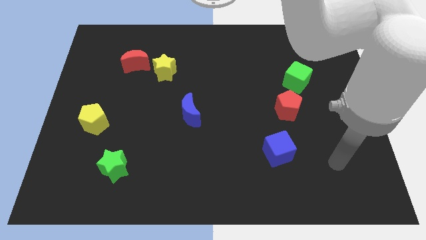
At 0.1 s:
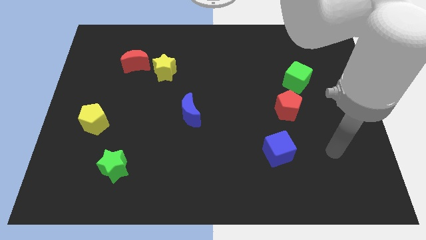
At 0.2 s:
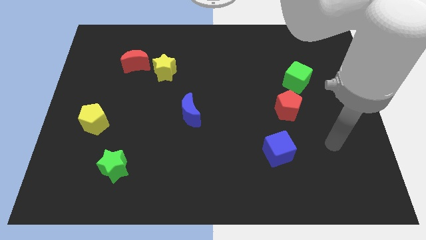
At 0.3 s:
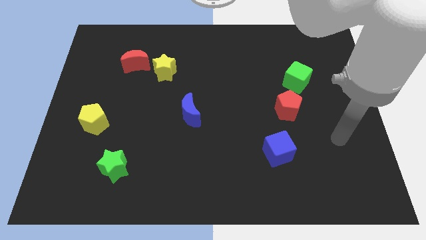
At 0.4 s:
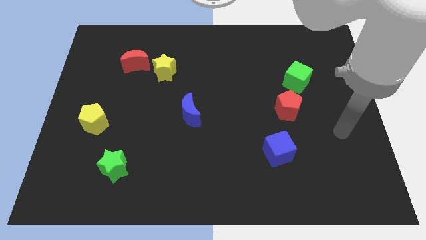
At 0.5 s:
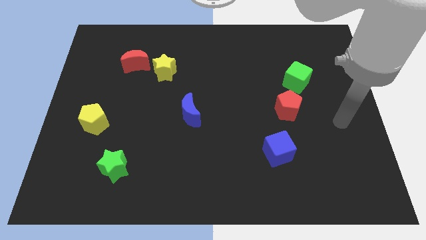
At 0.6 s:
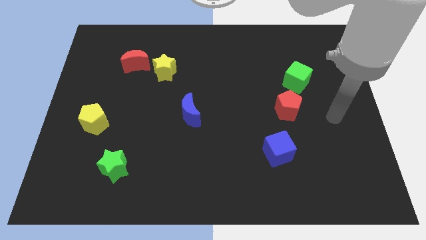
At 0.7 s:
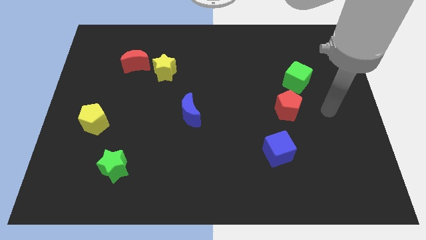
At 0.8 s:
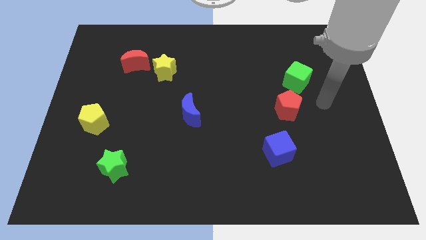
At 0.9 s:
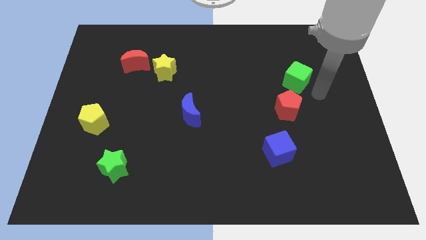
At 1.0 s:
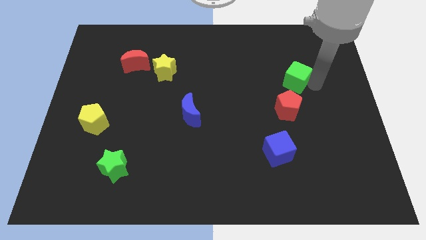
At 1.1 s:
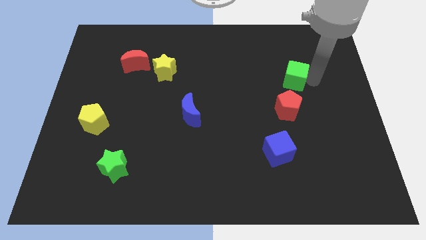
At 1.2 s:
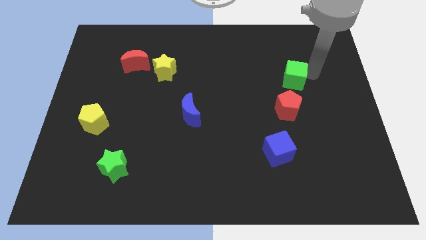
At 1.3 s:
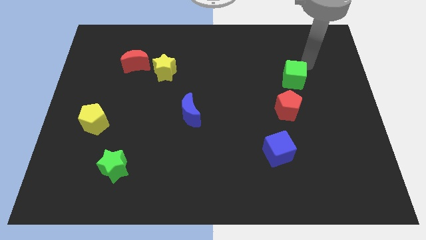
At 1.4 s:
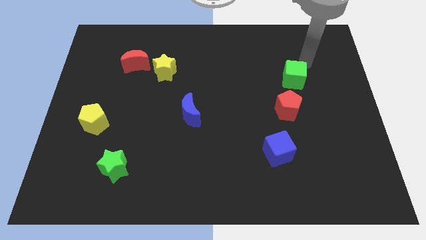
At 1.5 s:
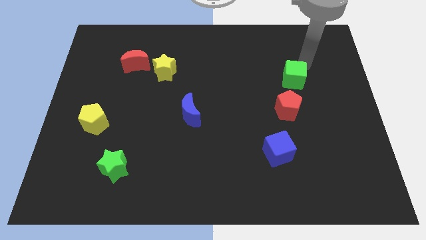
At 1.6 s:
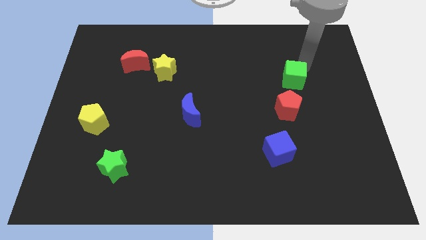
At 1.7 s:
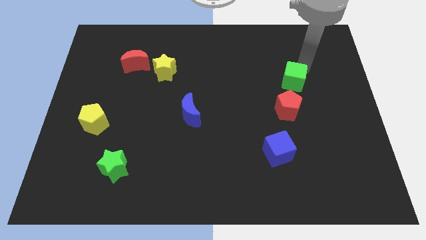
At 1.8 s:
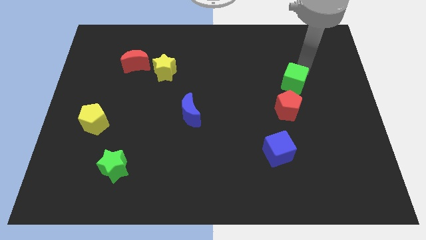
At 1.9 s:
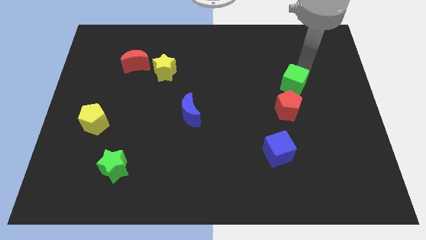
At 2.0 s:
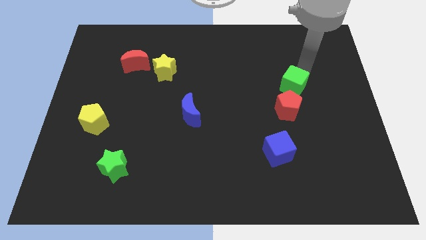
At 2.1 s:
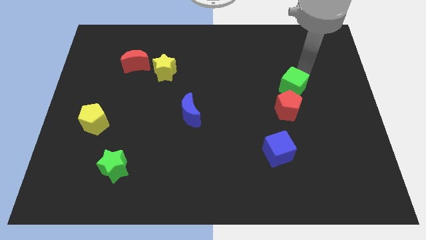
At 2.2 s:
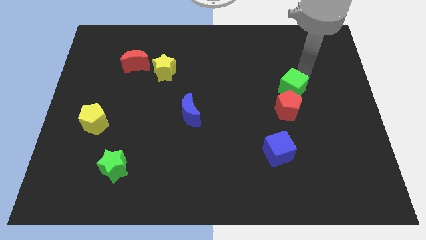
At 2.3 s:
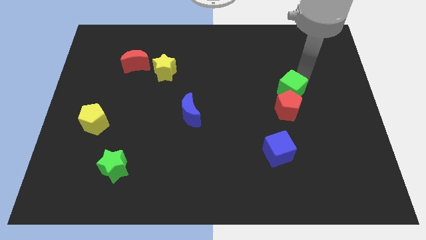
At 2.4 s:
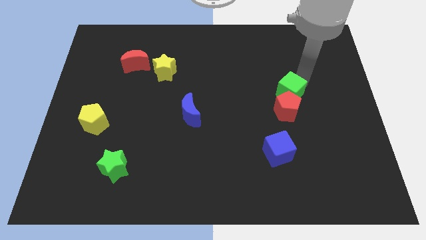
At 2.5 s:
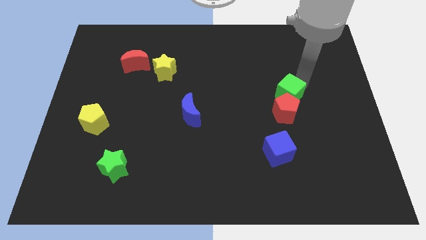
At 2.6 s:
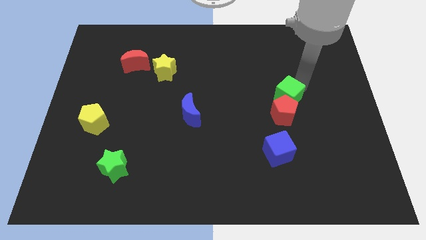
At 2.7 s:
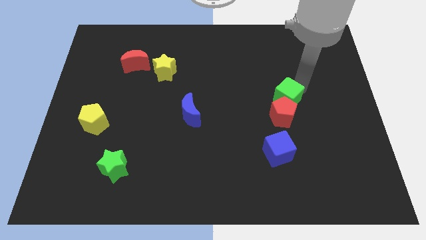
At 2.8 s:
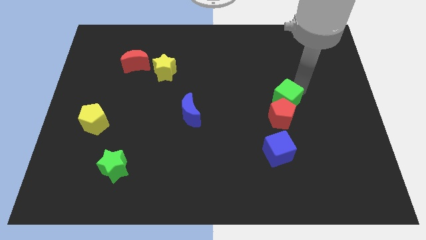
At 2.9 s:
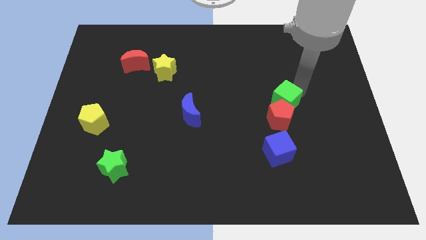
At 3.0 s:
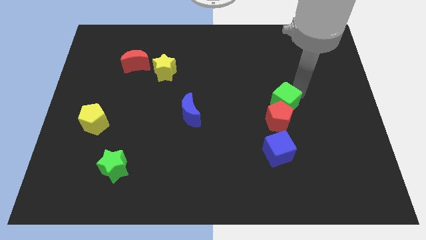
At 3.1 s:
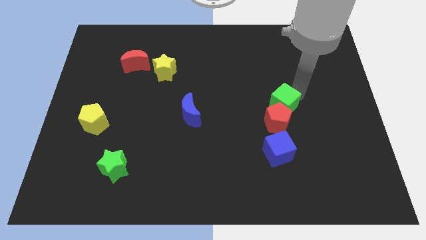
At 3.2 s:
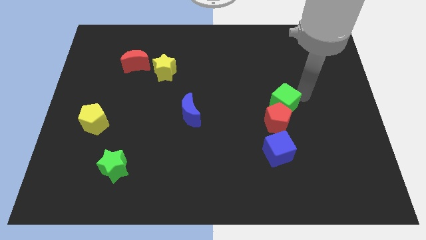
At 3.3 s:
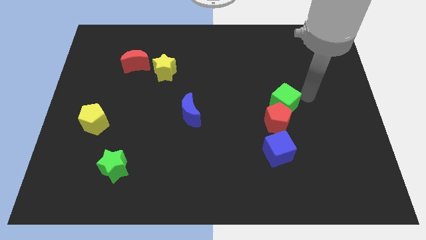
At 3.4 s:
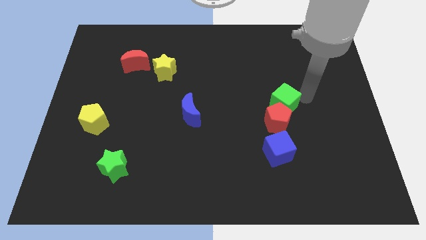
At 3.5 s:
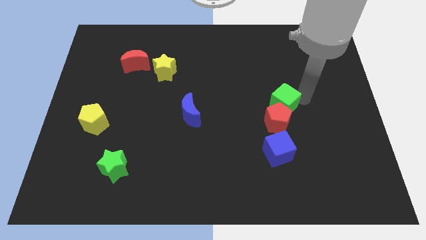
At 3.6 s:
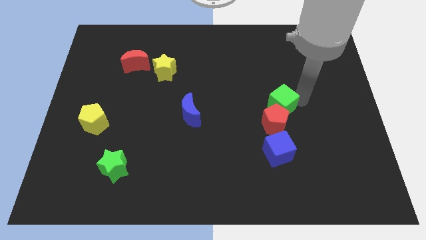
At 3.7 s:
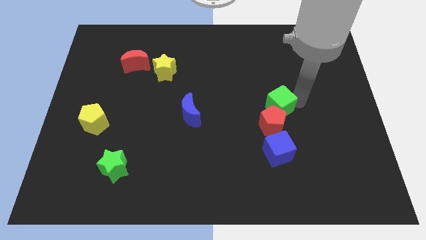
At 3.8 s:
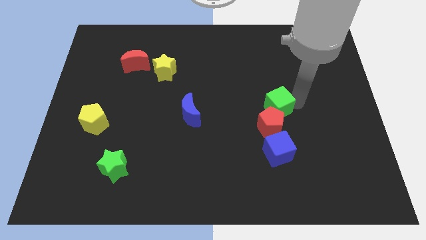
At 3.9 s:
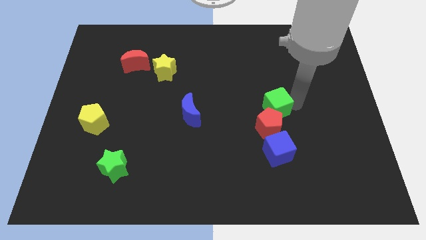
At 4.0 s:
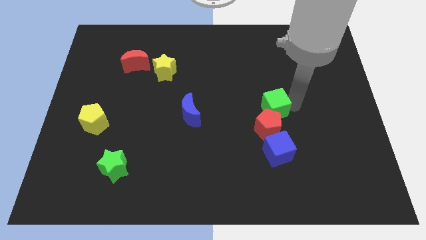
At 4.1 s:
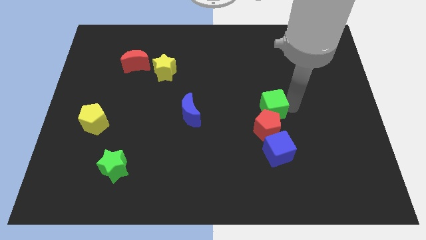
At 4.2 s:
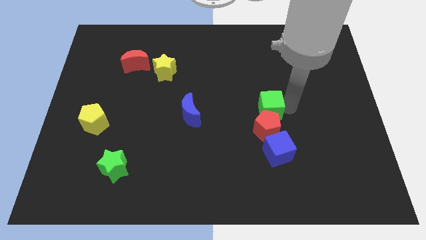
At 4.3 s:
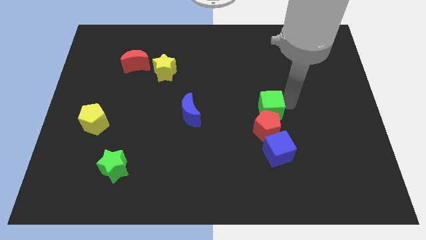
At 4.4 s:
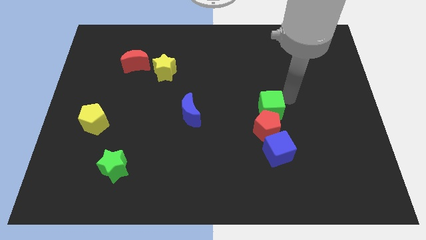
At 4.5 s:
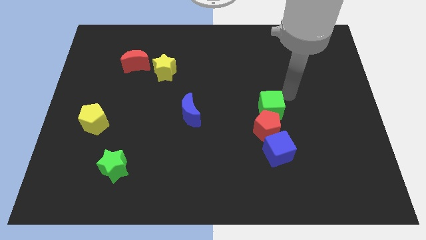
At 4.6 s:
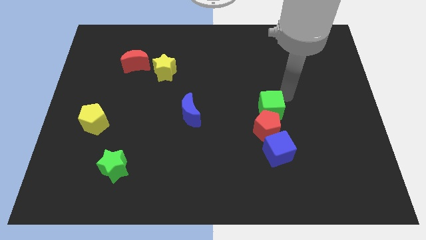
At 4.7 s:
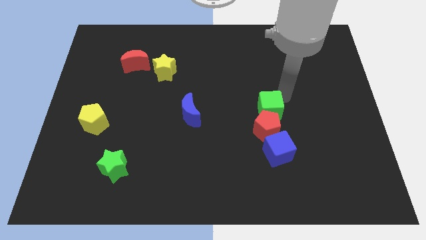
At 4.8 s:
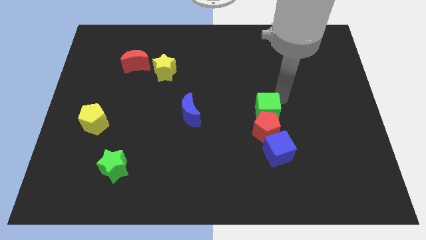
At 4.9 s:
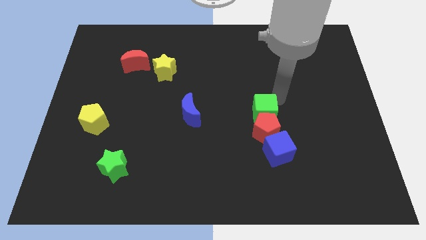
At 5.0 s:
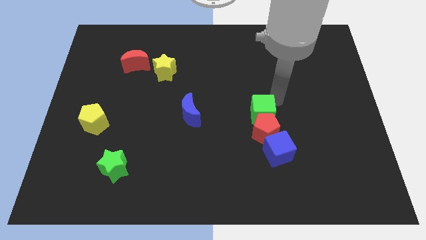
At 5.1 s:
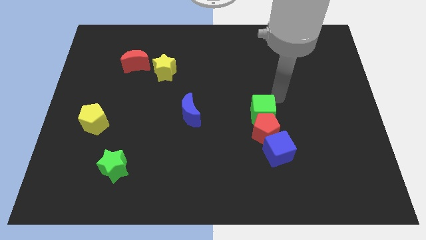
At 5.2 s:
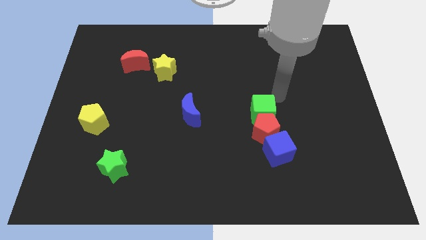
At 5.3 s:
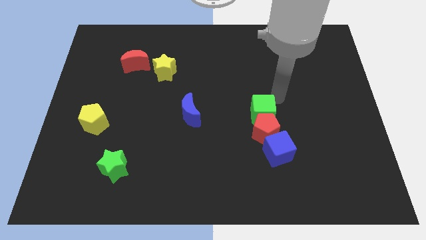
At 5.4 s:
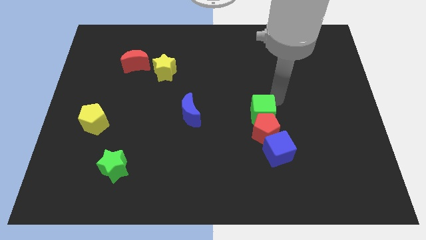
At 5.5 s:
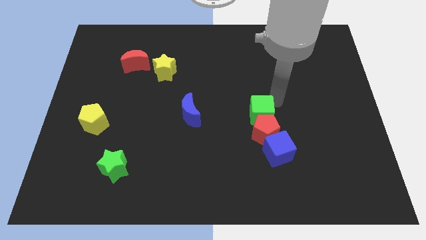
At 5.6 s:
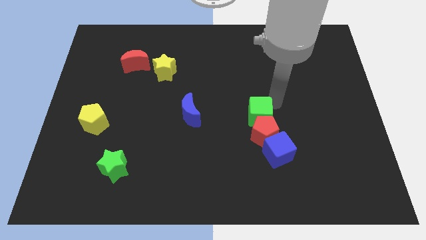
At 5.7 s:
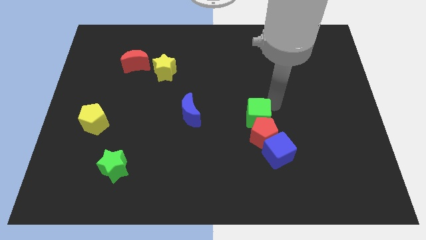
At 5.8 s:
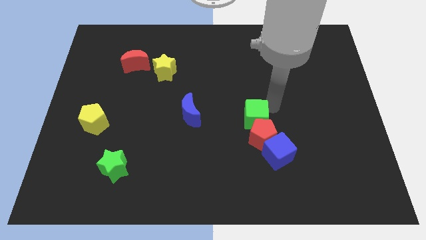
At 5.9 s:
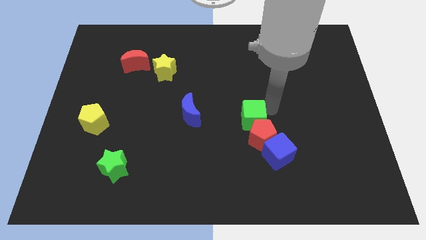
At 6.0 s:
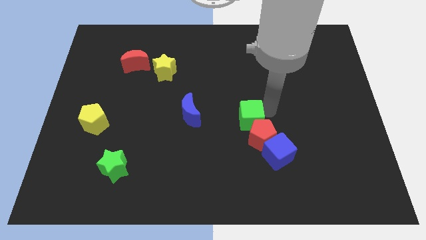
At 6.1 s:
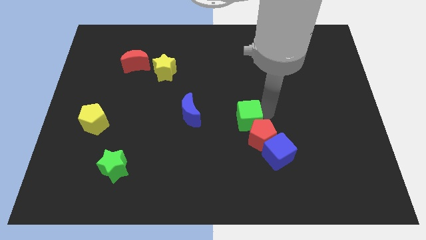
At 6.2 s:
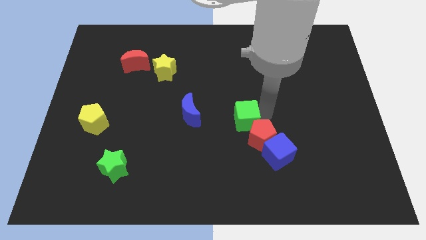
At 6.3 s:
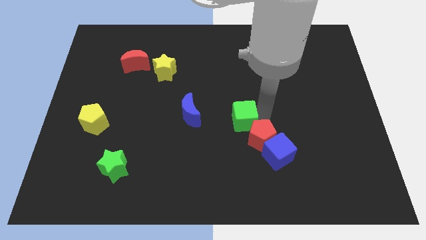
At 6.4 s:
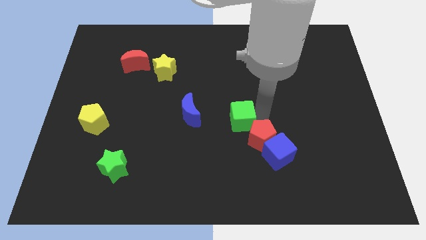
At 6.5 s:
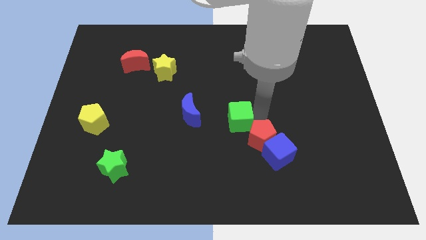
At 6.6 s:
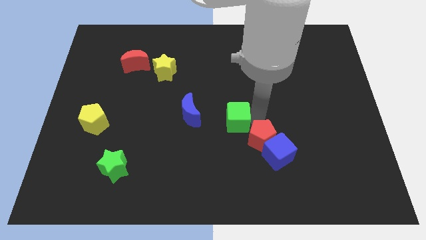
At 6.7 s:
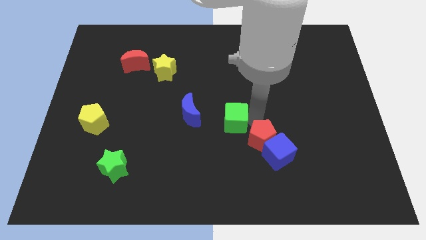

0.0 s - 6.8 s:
move the green cube down and to the left diagonally

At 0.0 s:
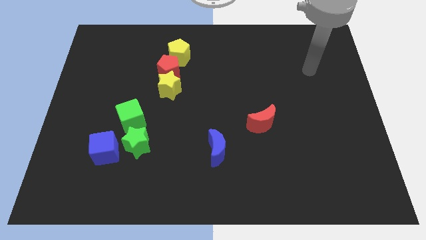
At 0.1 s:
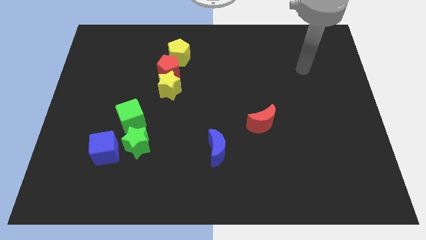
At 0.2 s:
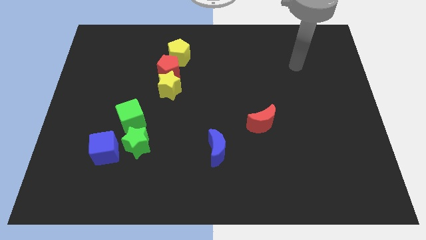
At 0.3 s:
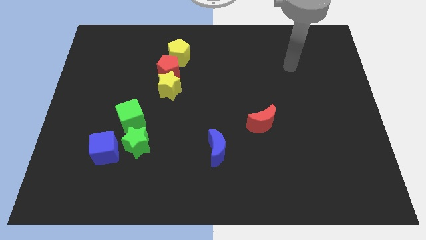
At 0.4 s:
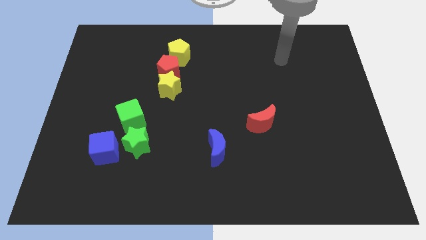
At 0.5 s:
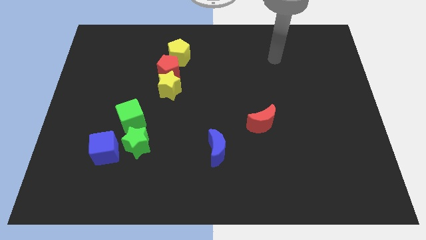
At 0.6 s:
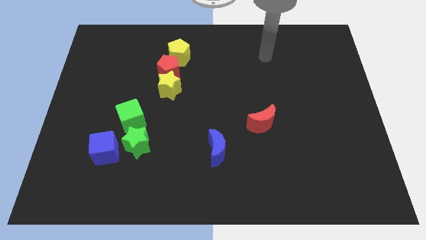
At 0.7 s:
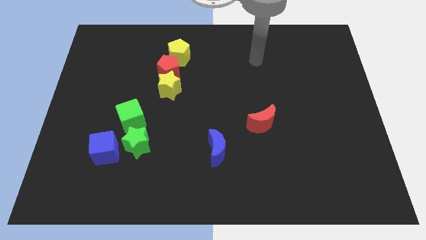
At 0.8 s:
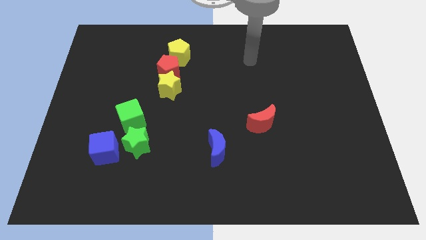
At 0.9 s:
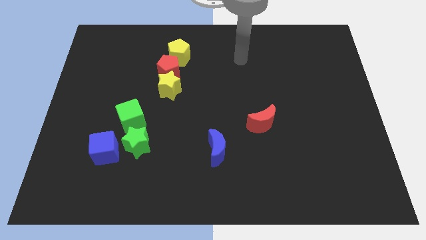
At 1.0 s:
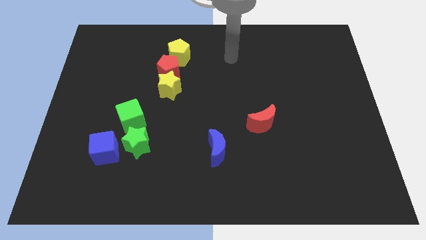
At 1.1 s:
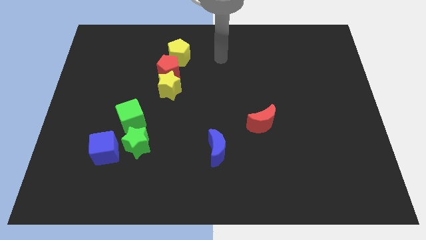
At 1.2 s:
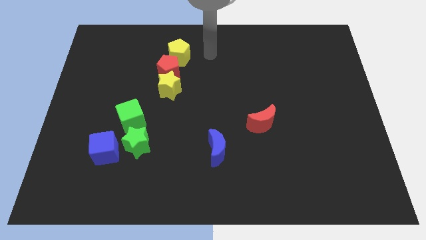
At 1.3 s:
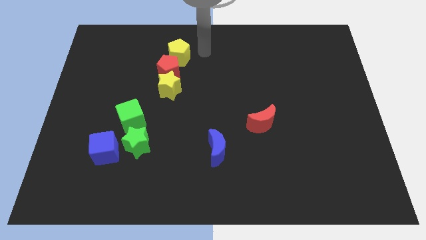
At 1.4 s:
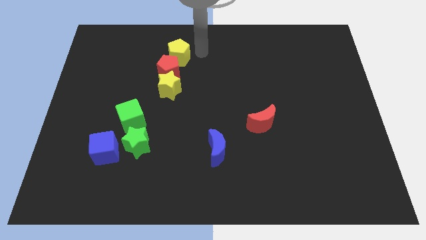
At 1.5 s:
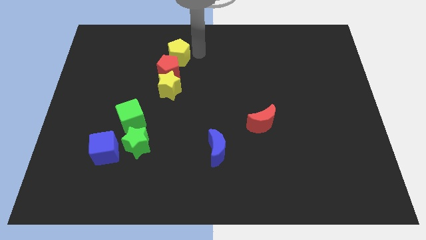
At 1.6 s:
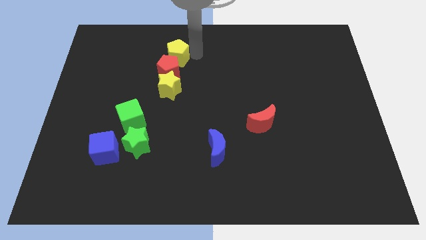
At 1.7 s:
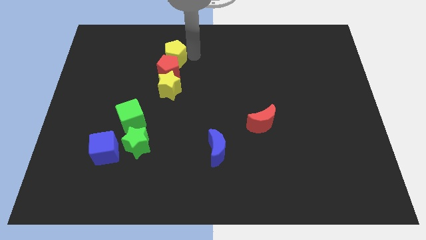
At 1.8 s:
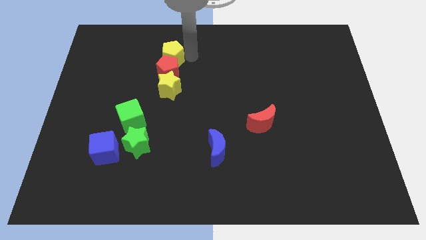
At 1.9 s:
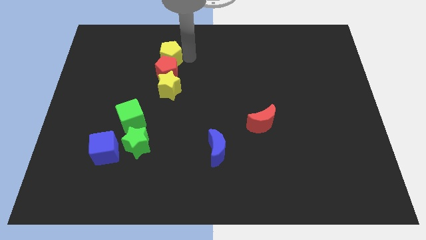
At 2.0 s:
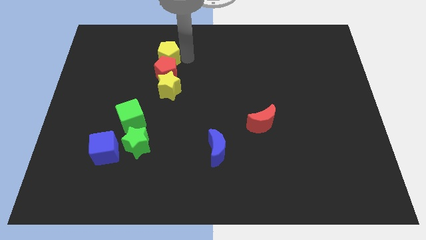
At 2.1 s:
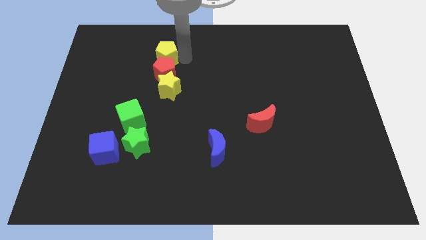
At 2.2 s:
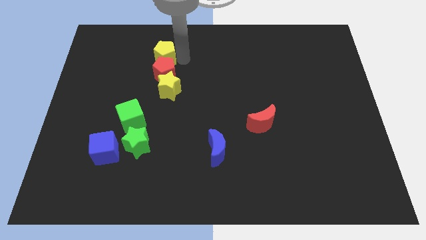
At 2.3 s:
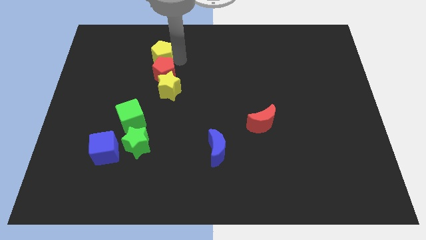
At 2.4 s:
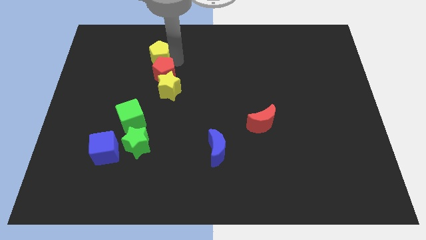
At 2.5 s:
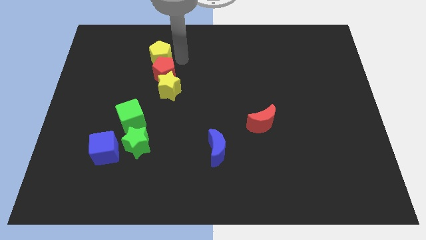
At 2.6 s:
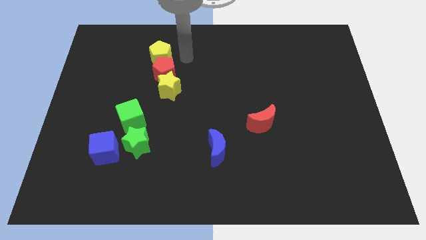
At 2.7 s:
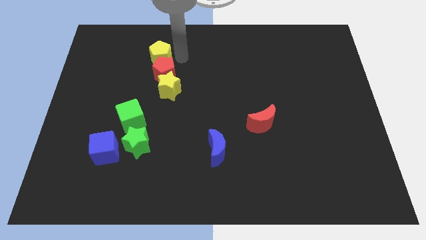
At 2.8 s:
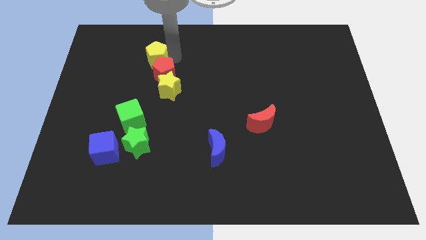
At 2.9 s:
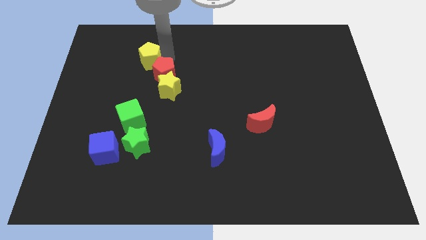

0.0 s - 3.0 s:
move the yellow pentagon to the left a little bit
